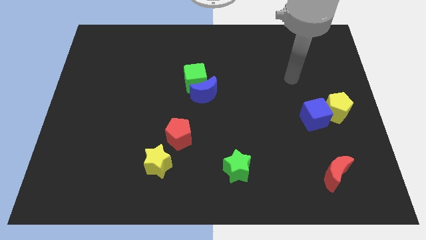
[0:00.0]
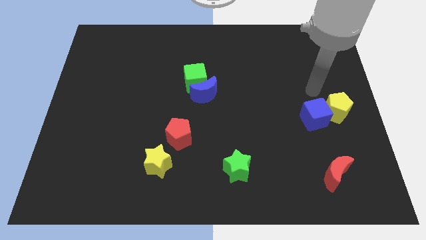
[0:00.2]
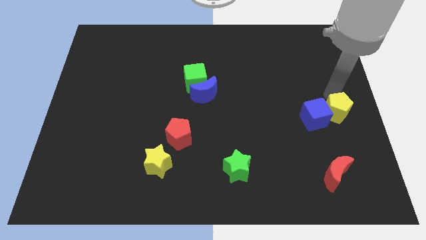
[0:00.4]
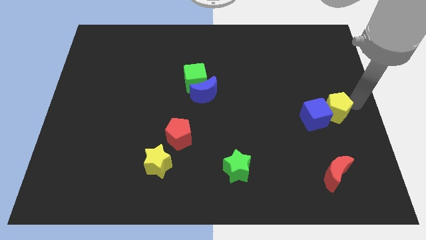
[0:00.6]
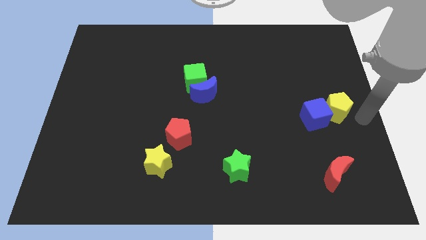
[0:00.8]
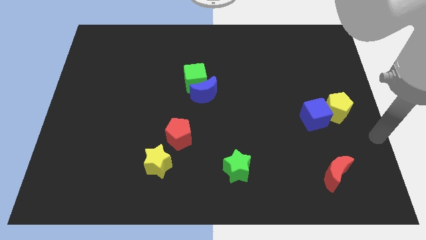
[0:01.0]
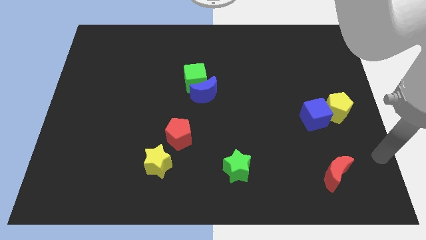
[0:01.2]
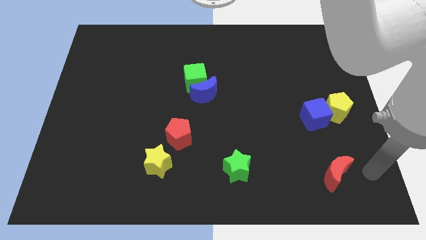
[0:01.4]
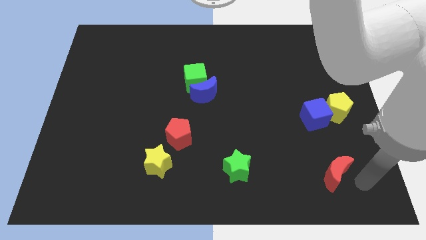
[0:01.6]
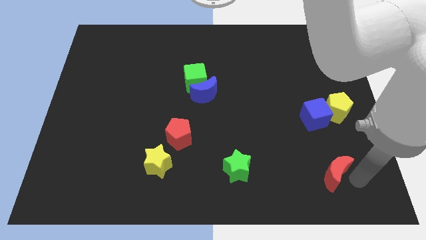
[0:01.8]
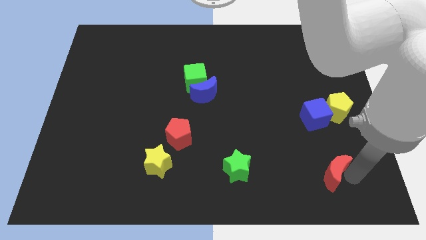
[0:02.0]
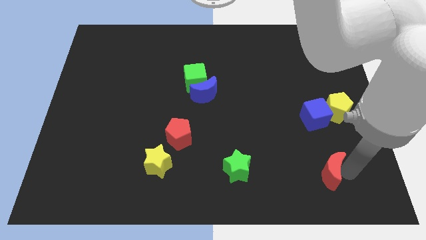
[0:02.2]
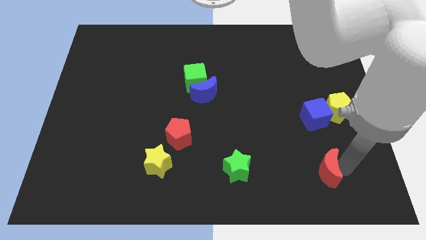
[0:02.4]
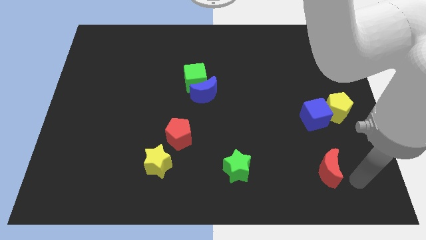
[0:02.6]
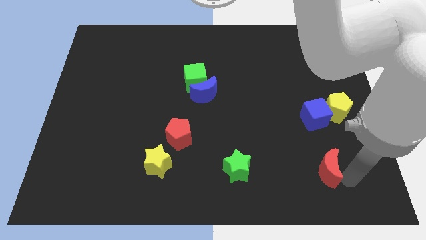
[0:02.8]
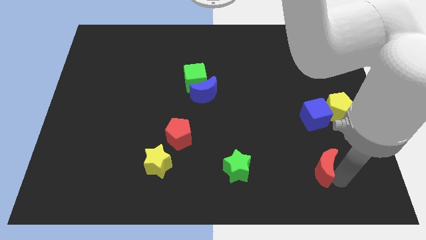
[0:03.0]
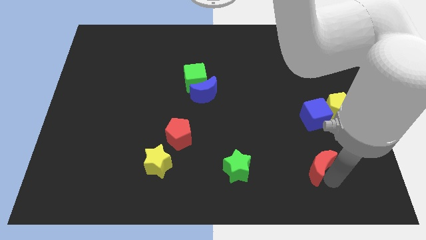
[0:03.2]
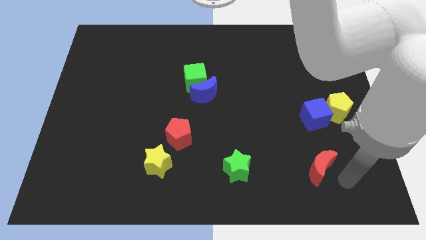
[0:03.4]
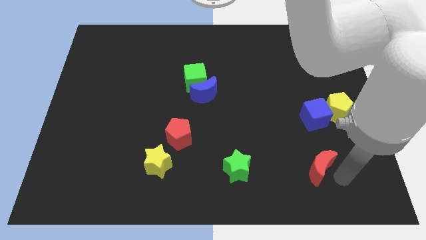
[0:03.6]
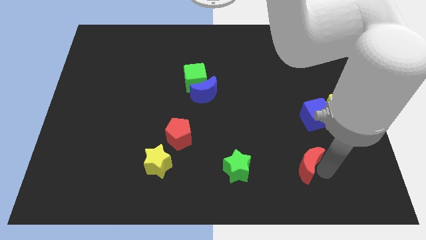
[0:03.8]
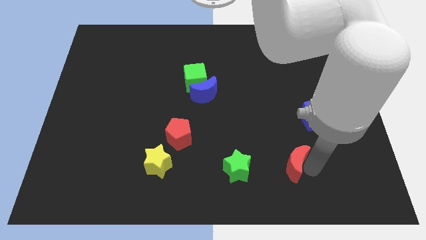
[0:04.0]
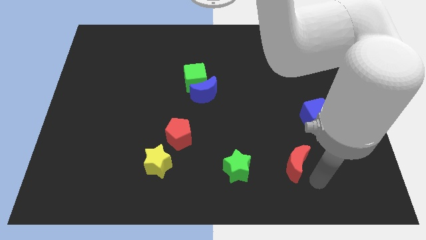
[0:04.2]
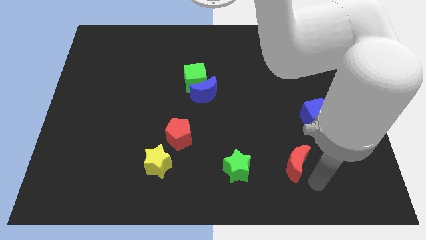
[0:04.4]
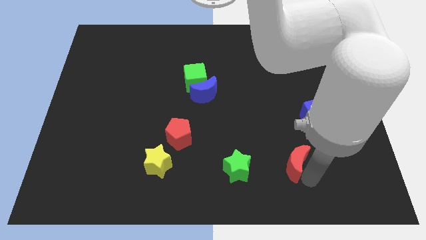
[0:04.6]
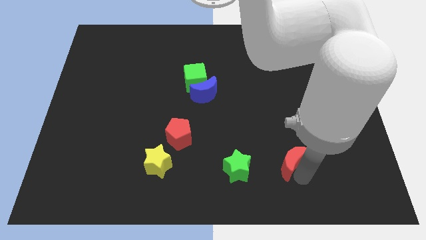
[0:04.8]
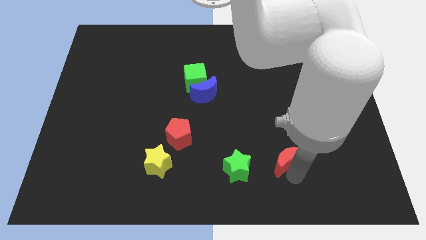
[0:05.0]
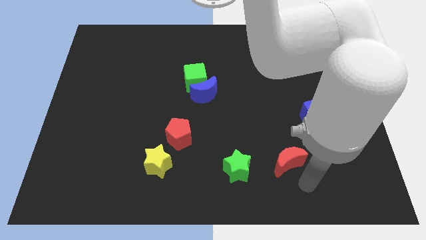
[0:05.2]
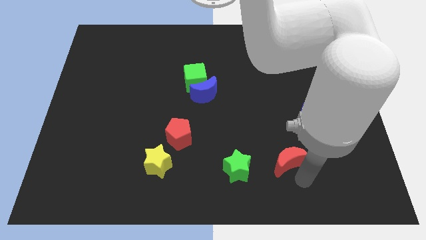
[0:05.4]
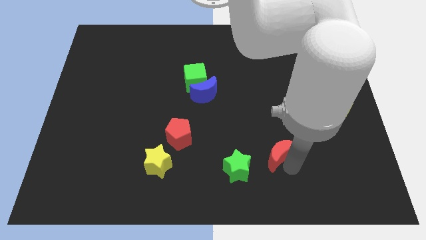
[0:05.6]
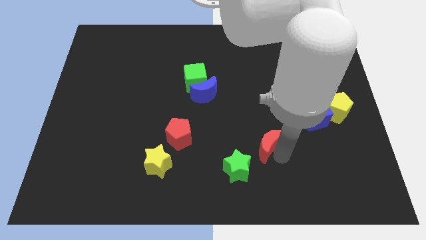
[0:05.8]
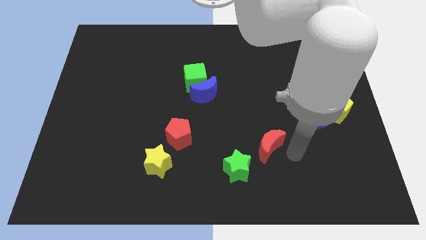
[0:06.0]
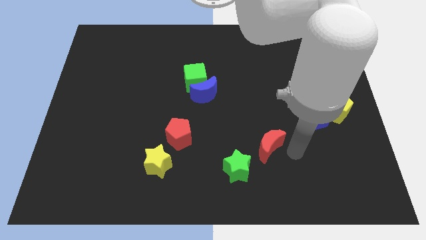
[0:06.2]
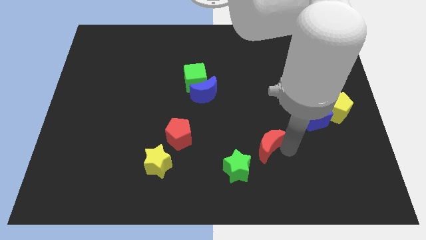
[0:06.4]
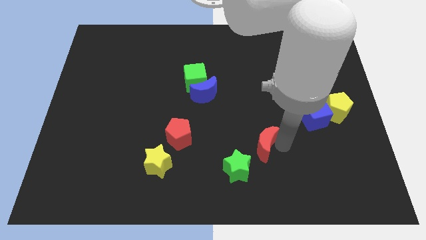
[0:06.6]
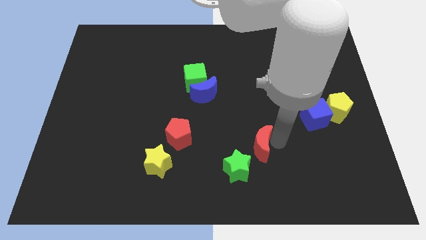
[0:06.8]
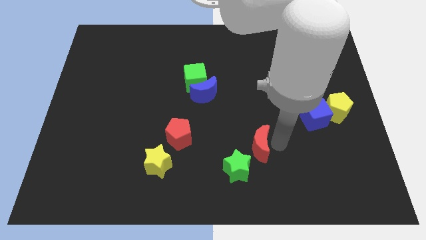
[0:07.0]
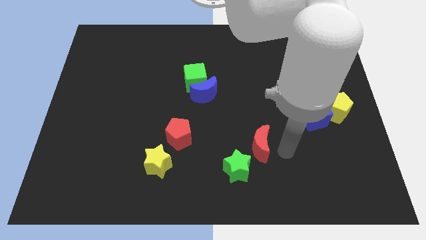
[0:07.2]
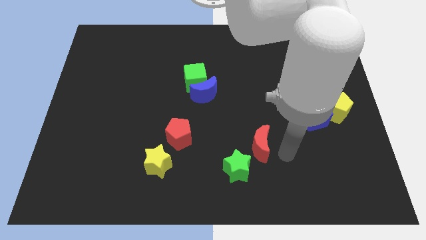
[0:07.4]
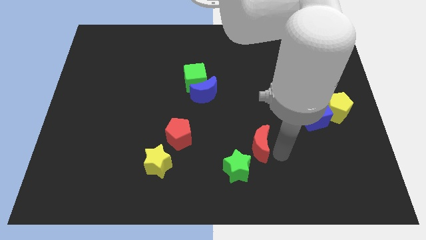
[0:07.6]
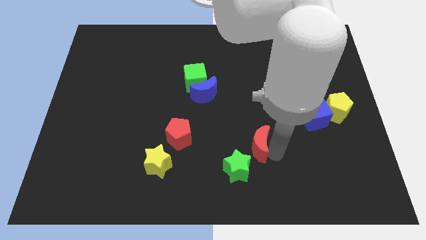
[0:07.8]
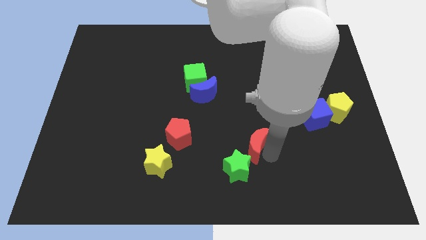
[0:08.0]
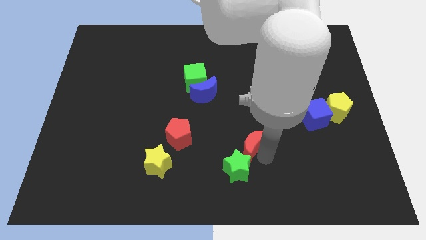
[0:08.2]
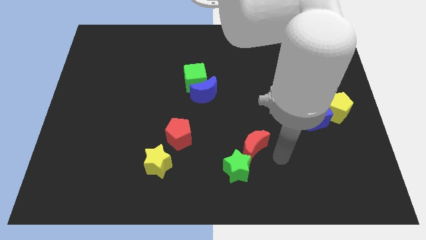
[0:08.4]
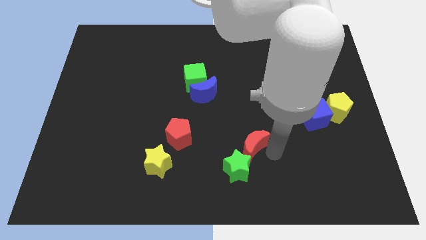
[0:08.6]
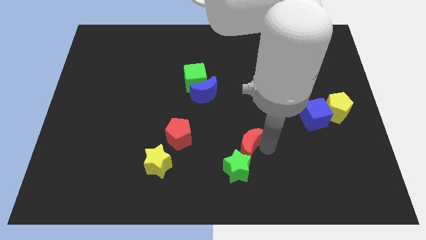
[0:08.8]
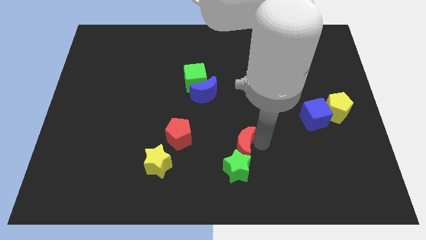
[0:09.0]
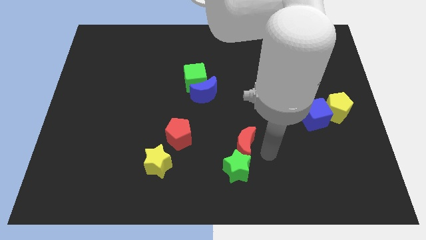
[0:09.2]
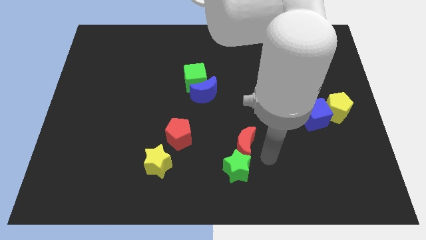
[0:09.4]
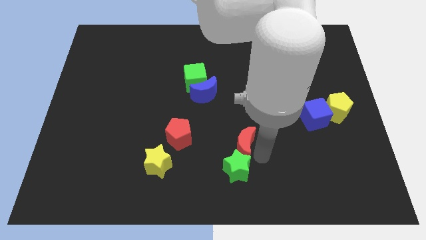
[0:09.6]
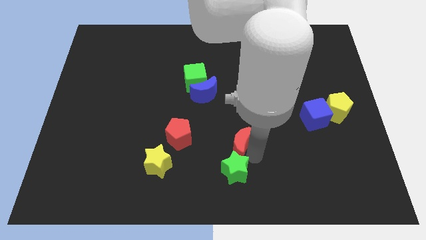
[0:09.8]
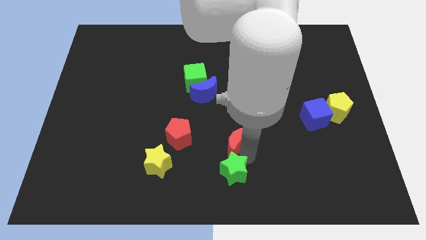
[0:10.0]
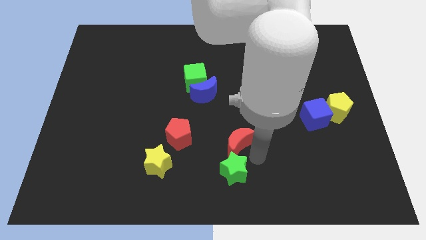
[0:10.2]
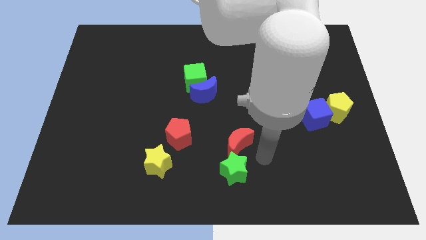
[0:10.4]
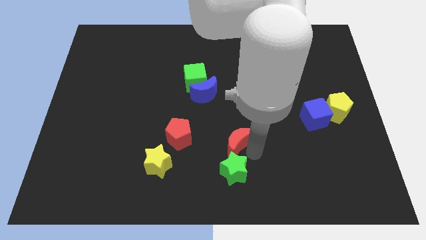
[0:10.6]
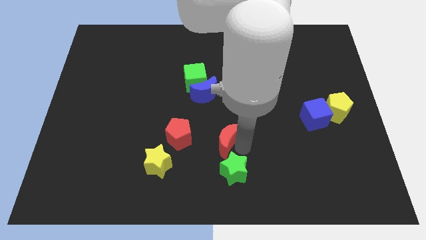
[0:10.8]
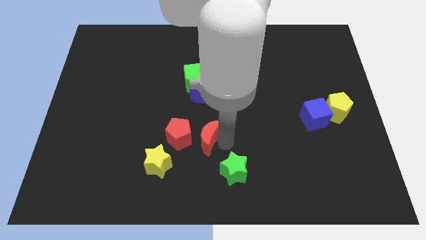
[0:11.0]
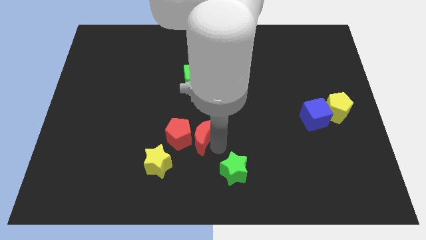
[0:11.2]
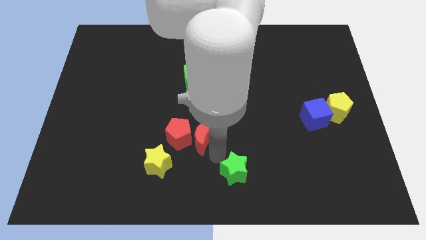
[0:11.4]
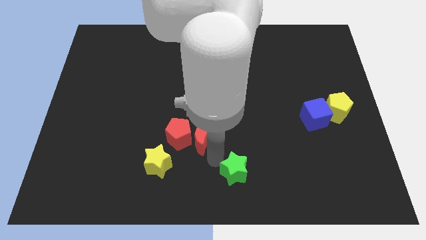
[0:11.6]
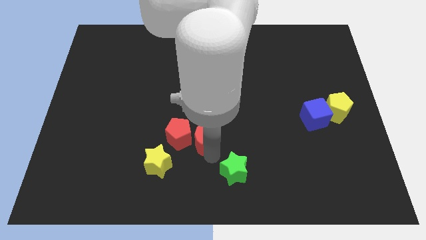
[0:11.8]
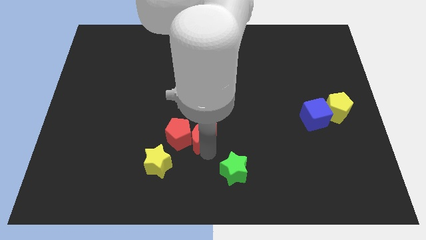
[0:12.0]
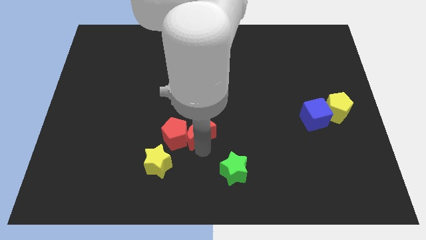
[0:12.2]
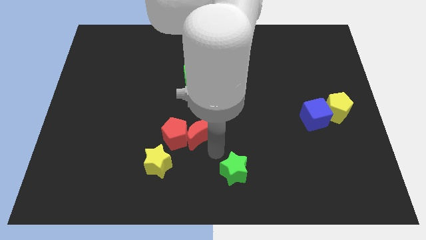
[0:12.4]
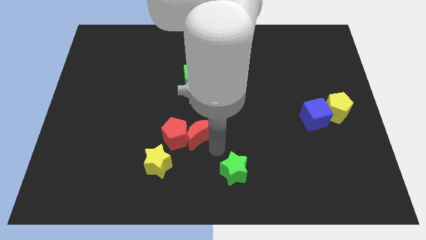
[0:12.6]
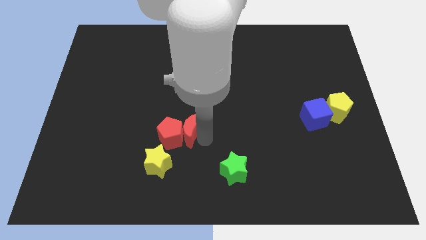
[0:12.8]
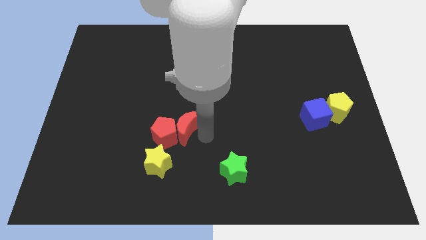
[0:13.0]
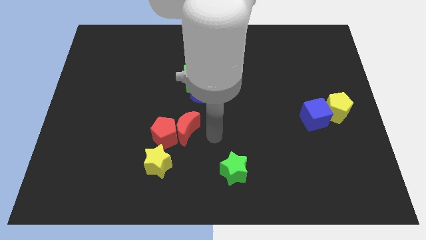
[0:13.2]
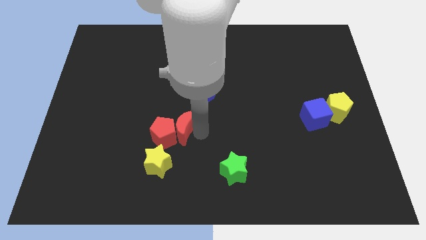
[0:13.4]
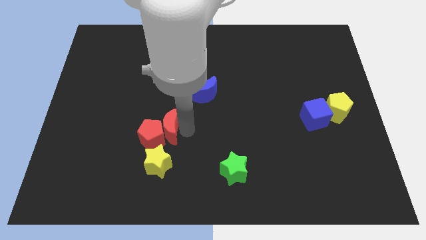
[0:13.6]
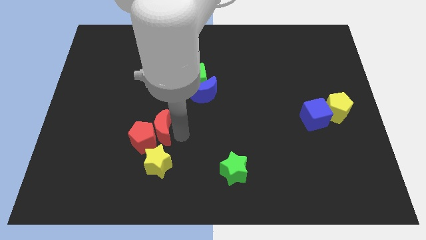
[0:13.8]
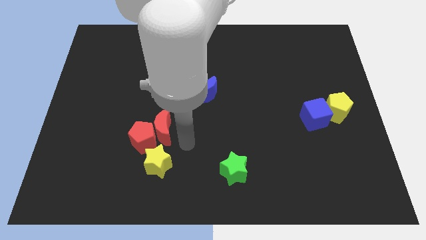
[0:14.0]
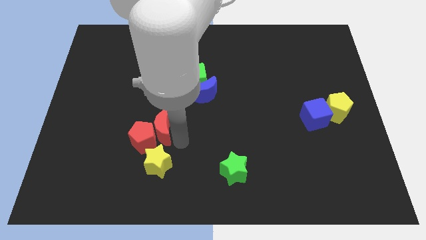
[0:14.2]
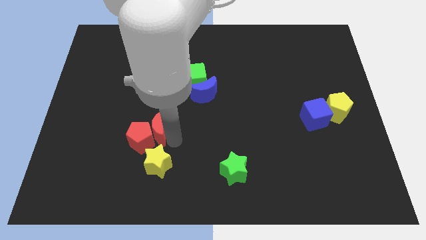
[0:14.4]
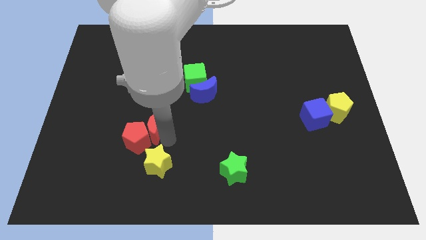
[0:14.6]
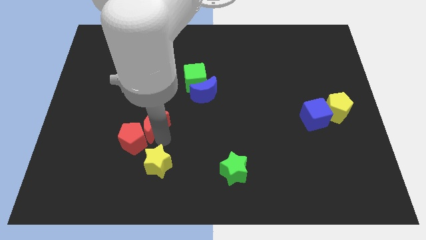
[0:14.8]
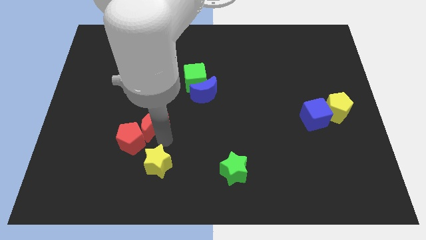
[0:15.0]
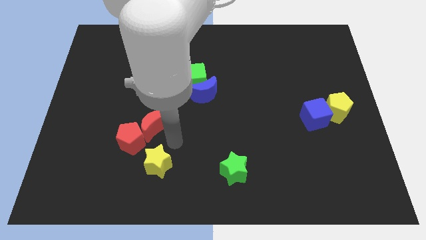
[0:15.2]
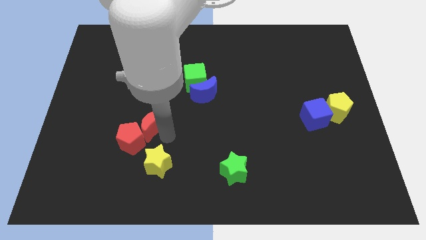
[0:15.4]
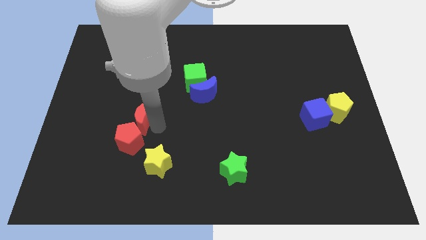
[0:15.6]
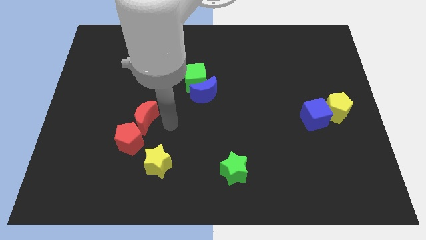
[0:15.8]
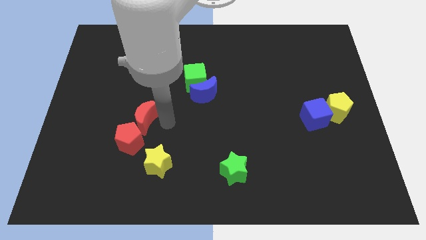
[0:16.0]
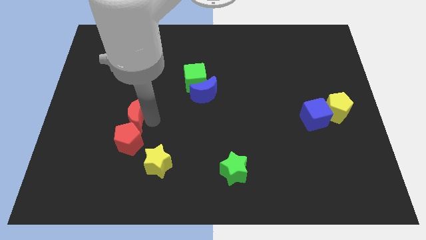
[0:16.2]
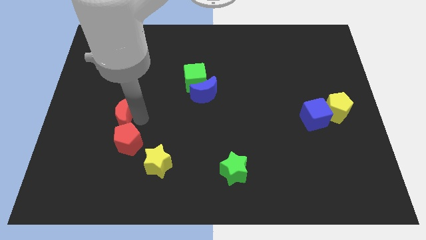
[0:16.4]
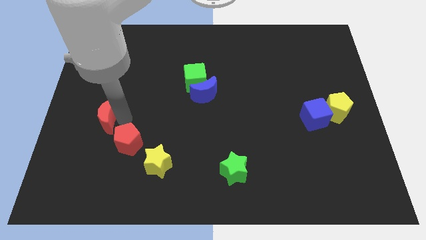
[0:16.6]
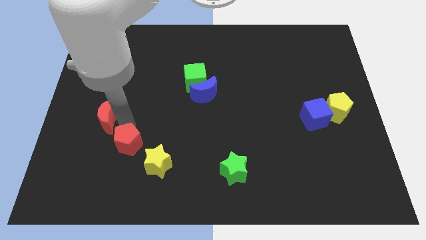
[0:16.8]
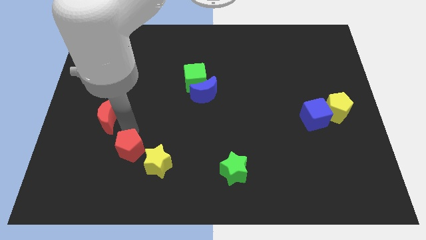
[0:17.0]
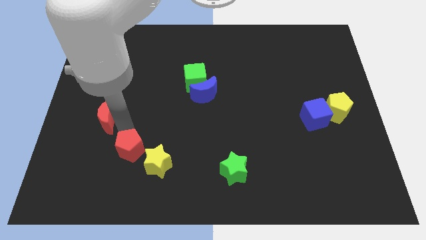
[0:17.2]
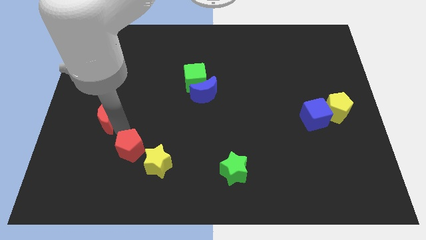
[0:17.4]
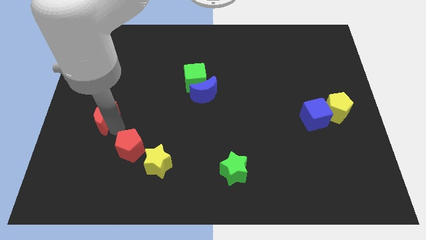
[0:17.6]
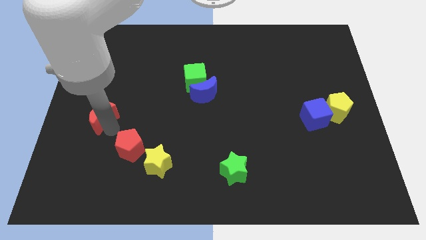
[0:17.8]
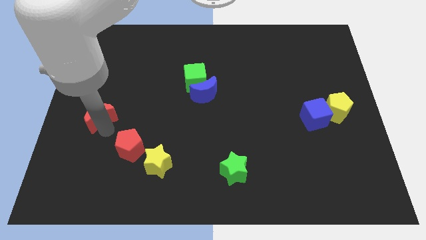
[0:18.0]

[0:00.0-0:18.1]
move the red moon to the left side of the board
